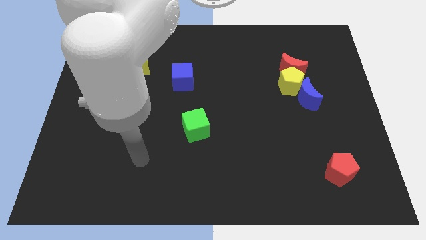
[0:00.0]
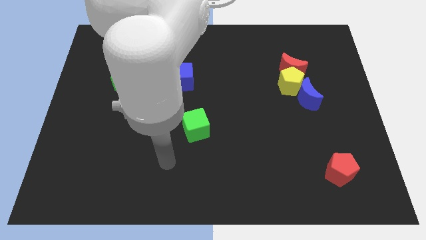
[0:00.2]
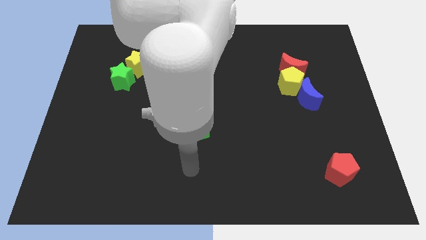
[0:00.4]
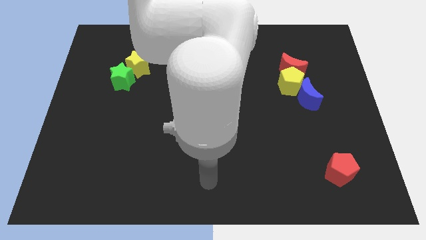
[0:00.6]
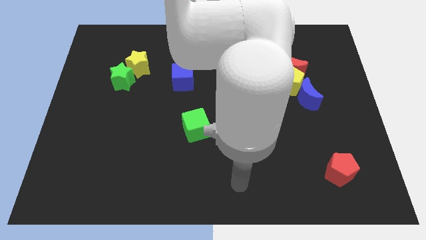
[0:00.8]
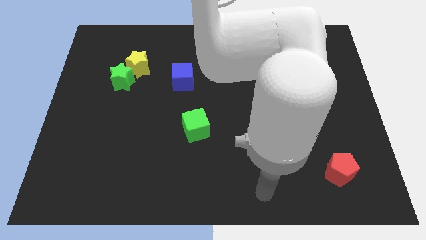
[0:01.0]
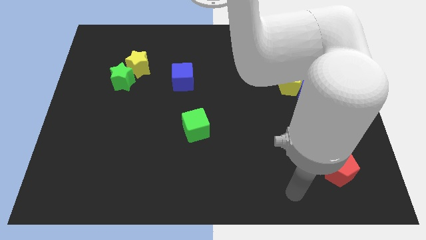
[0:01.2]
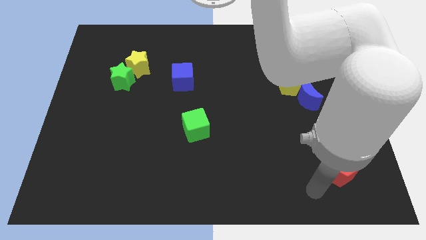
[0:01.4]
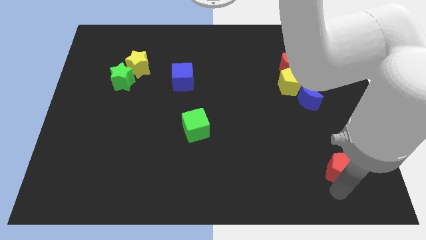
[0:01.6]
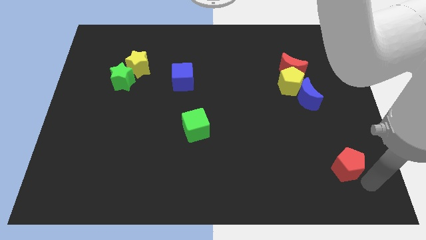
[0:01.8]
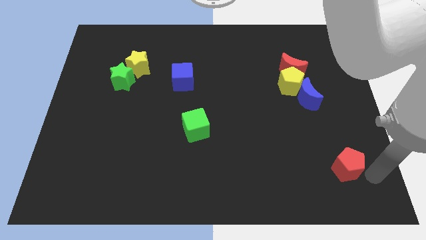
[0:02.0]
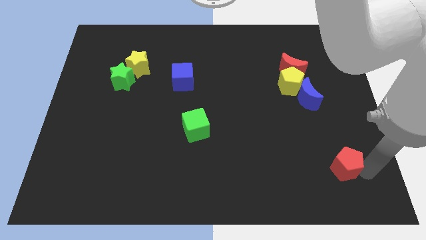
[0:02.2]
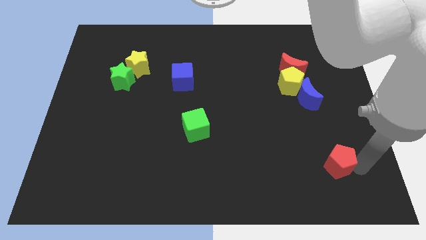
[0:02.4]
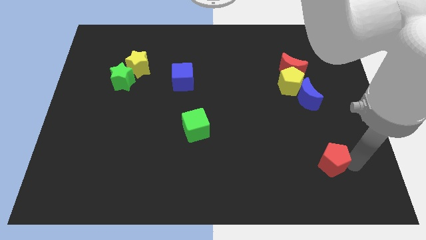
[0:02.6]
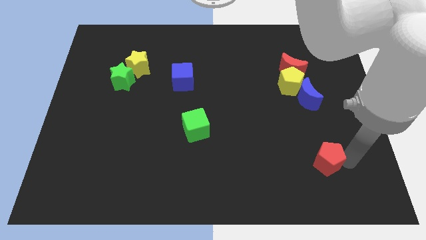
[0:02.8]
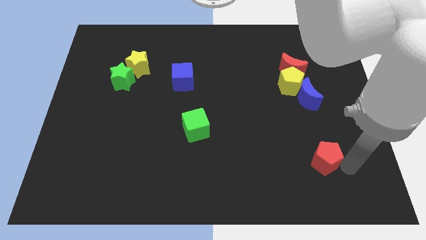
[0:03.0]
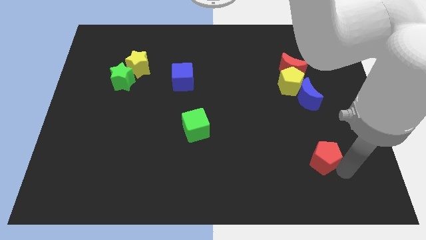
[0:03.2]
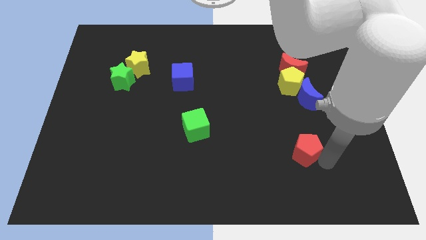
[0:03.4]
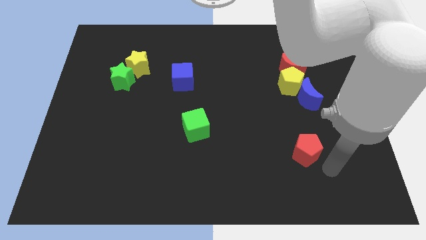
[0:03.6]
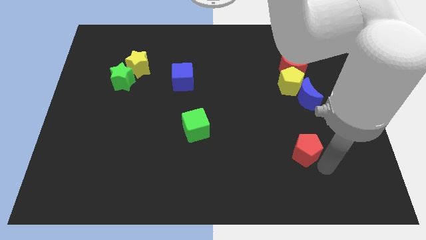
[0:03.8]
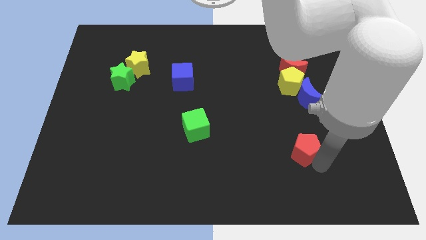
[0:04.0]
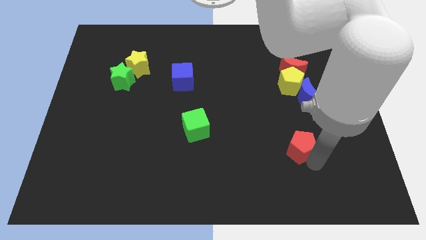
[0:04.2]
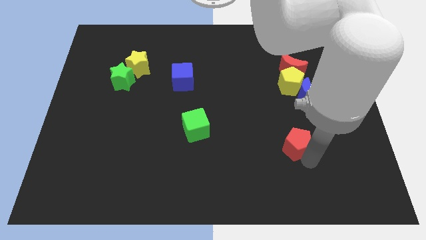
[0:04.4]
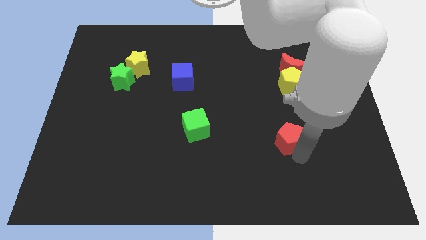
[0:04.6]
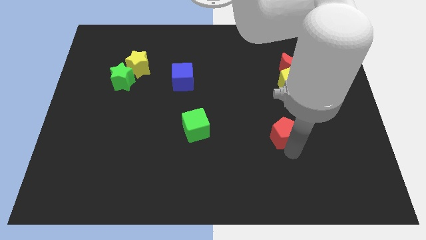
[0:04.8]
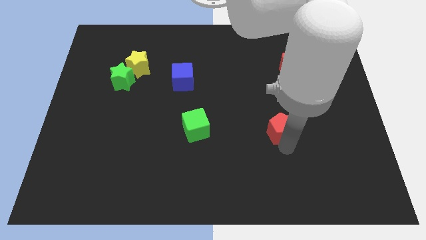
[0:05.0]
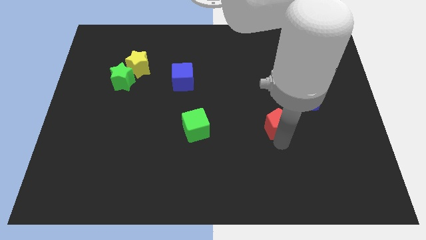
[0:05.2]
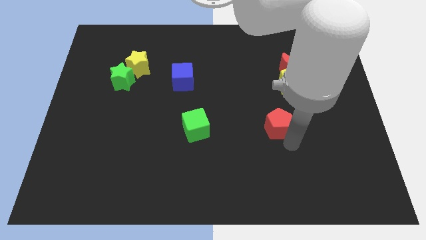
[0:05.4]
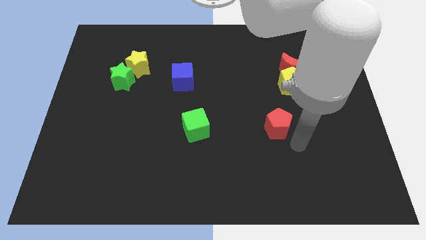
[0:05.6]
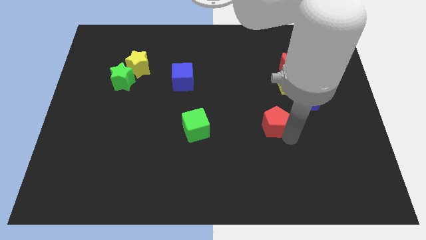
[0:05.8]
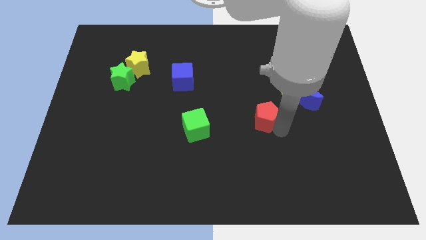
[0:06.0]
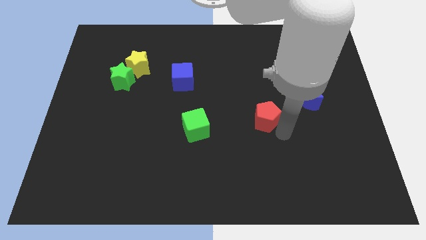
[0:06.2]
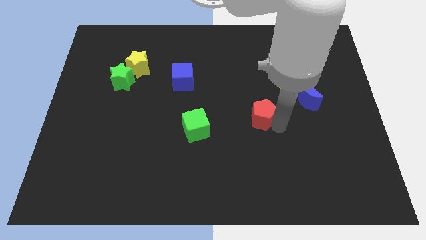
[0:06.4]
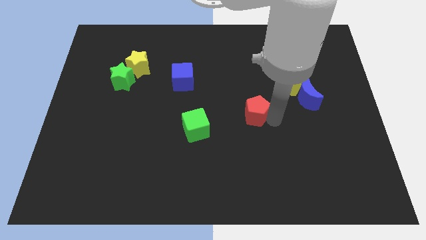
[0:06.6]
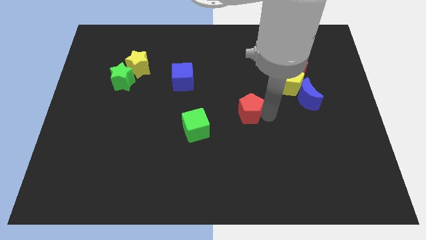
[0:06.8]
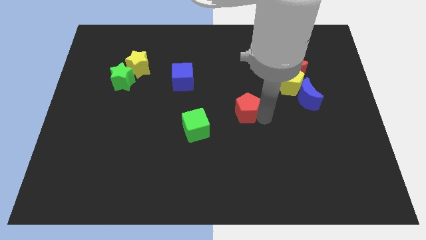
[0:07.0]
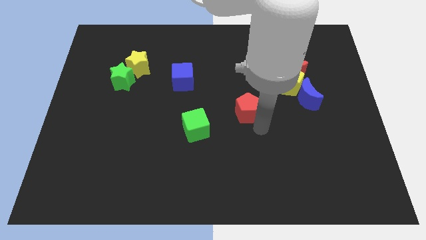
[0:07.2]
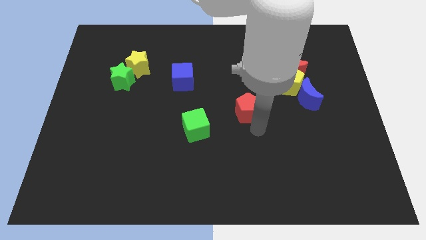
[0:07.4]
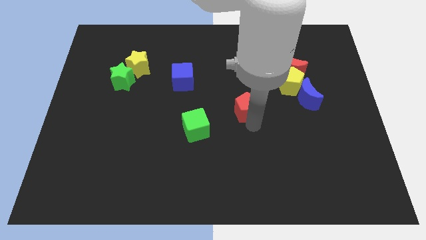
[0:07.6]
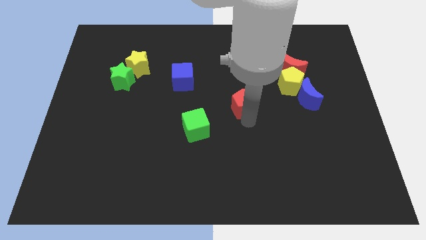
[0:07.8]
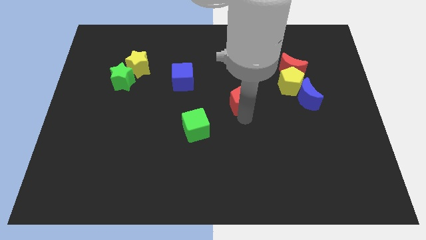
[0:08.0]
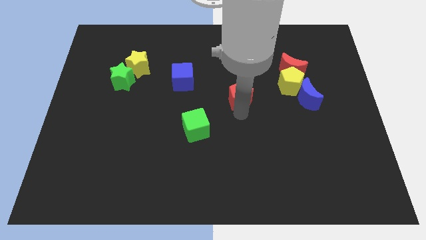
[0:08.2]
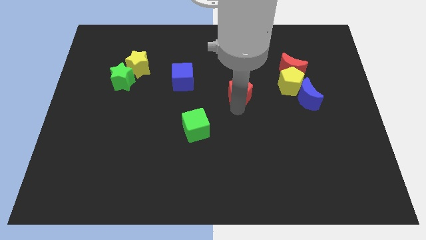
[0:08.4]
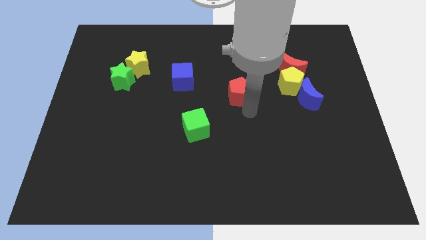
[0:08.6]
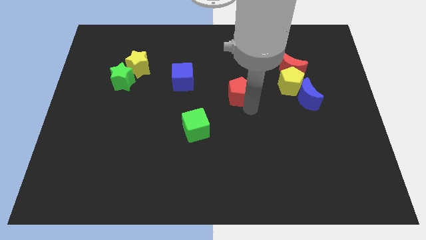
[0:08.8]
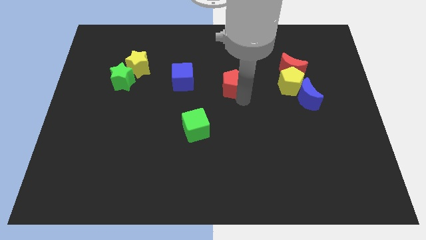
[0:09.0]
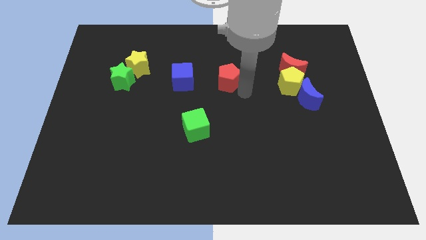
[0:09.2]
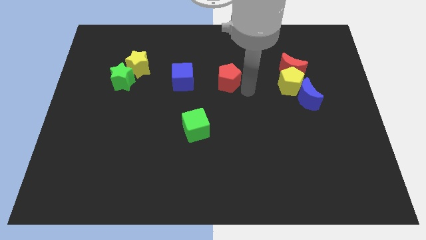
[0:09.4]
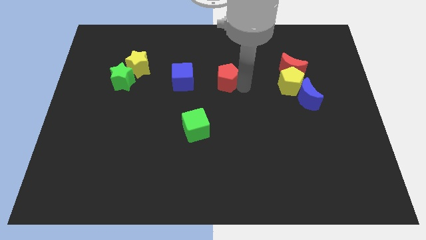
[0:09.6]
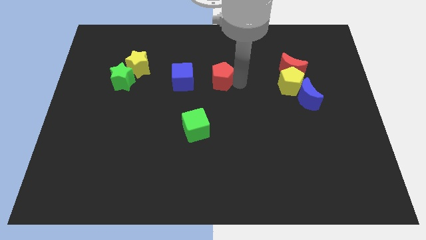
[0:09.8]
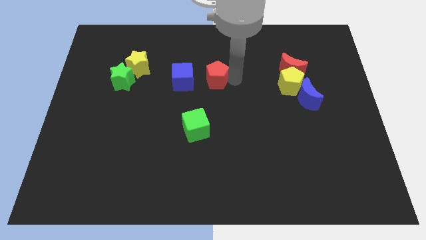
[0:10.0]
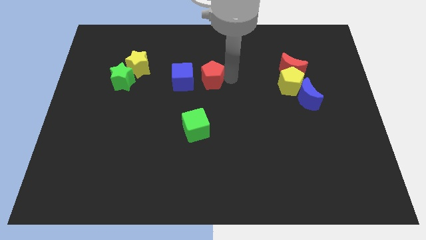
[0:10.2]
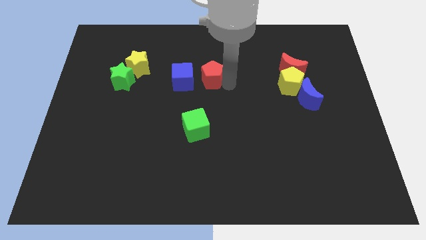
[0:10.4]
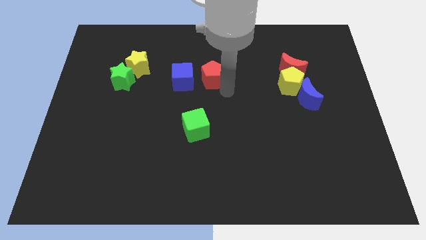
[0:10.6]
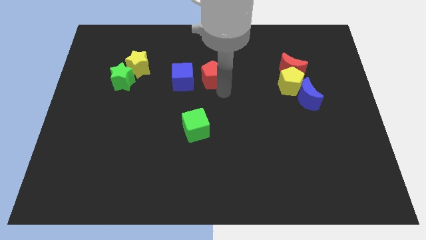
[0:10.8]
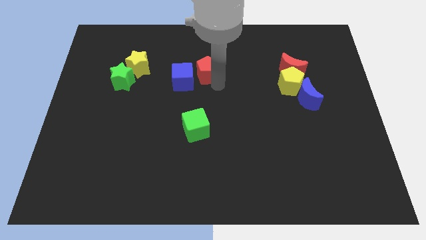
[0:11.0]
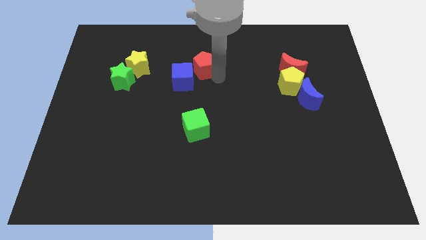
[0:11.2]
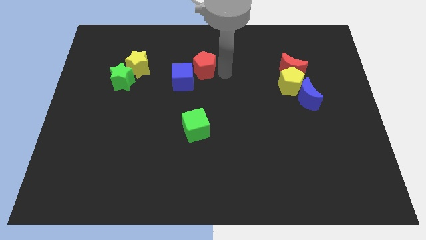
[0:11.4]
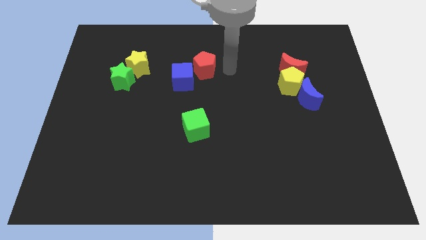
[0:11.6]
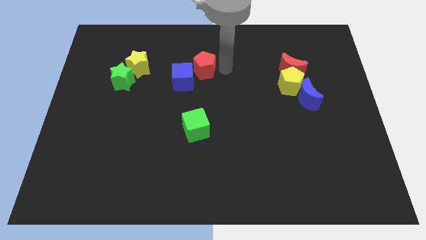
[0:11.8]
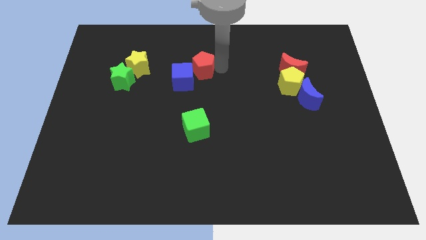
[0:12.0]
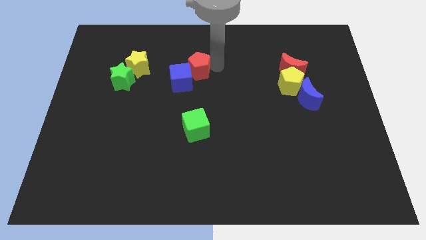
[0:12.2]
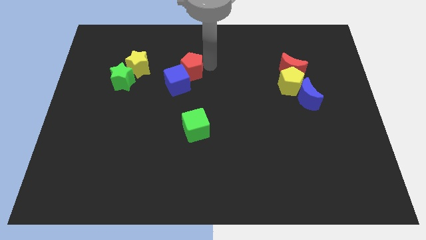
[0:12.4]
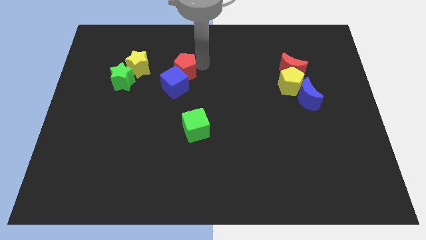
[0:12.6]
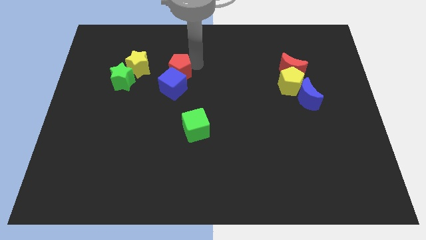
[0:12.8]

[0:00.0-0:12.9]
put the red pentagon diagonally up and to the left of the blue cube

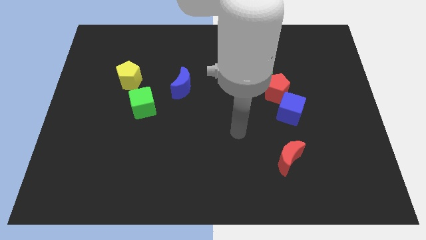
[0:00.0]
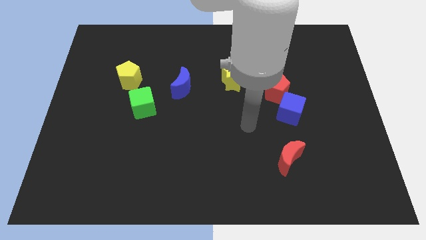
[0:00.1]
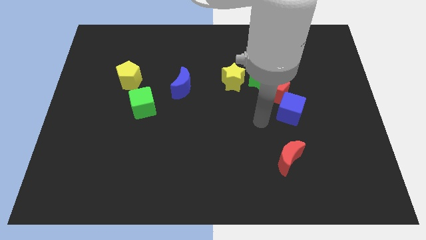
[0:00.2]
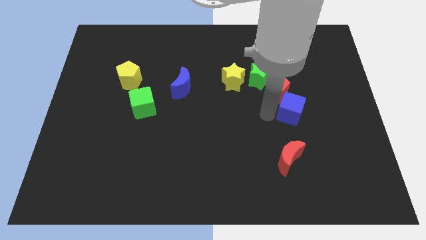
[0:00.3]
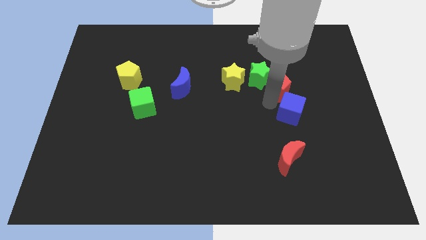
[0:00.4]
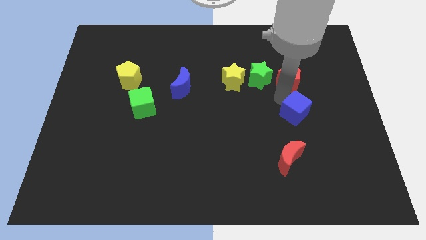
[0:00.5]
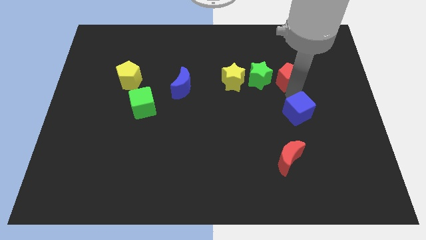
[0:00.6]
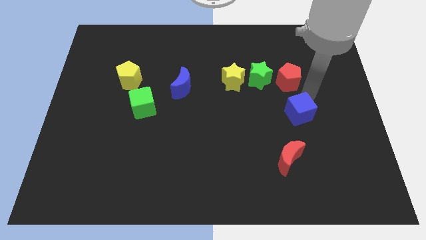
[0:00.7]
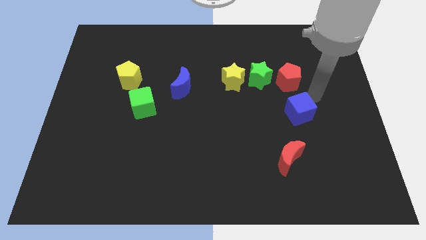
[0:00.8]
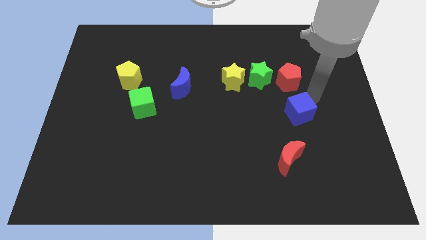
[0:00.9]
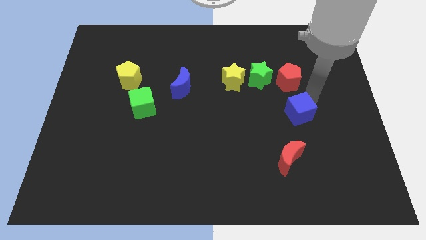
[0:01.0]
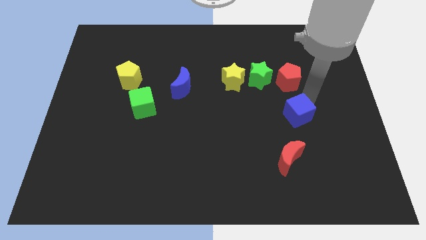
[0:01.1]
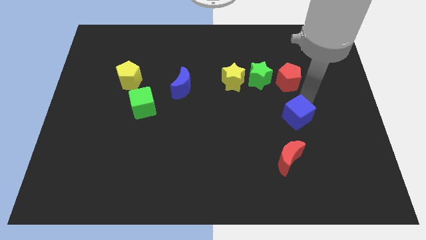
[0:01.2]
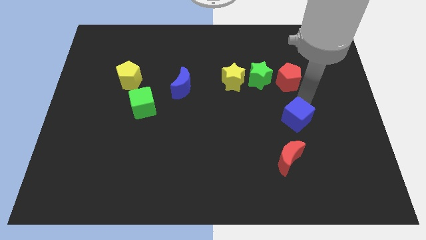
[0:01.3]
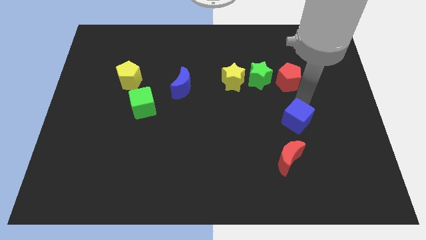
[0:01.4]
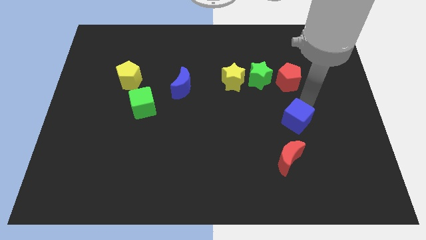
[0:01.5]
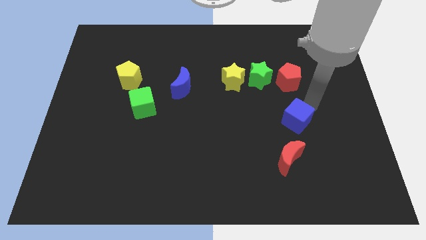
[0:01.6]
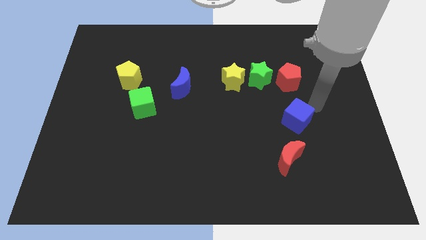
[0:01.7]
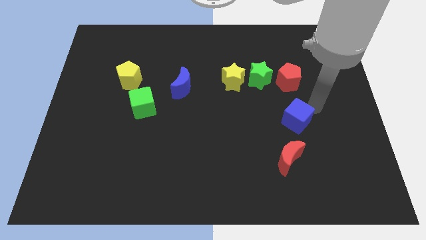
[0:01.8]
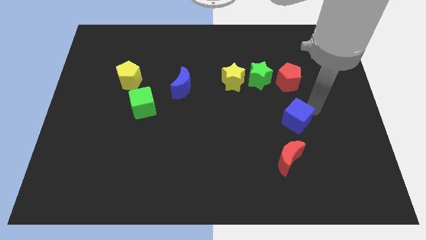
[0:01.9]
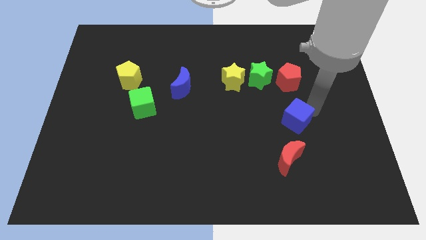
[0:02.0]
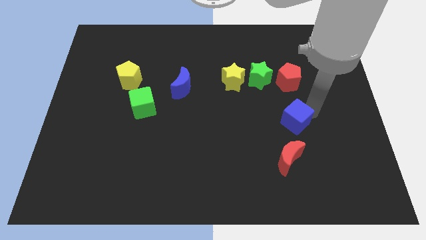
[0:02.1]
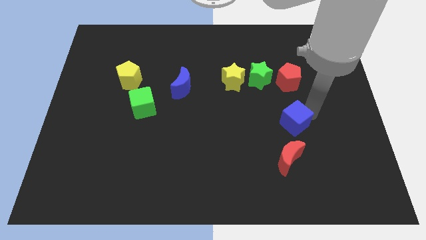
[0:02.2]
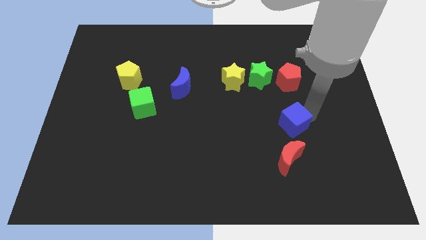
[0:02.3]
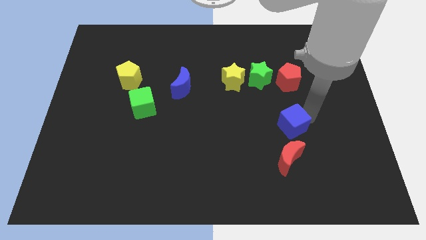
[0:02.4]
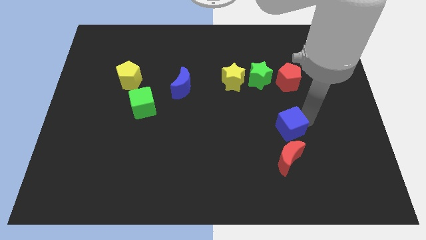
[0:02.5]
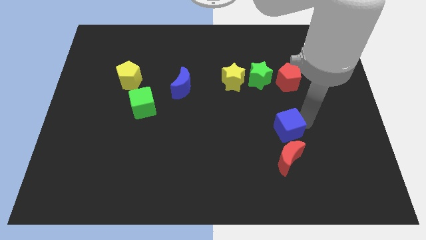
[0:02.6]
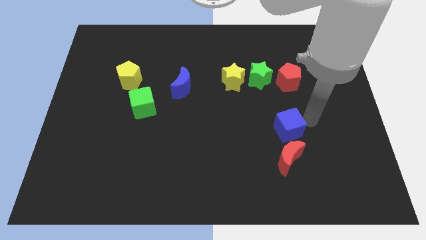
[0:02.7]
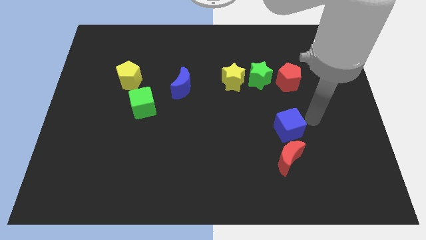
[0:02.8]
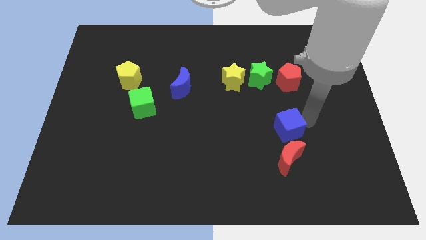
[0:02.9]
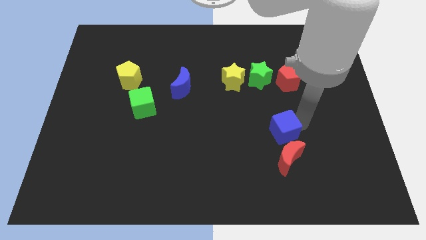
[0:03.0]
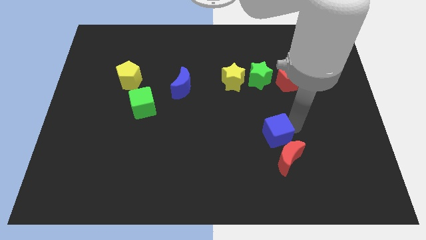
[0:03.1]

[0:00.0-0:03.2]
push the blue cube to the top left side of the red moon
